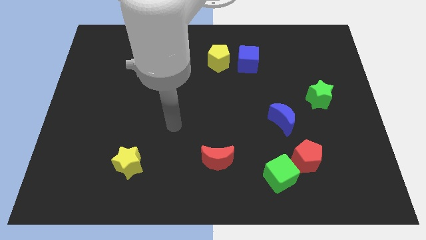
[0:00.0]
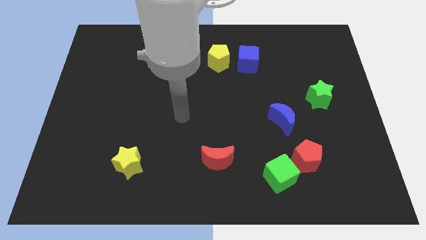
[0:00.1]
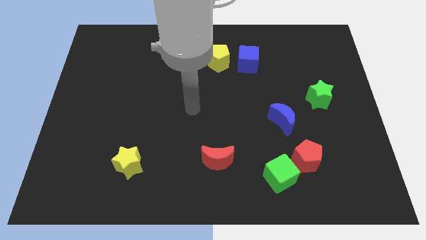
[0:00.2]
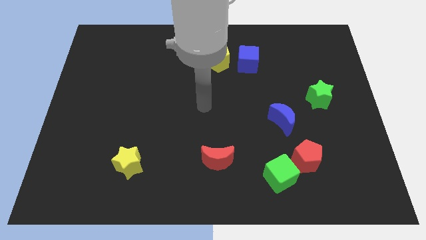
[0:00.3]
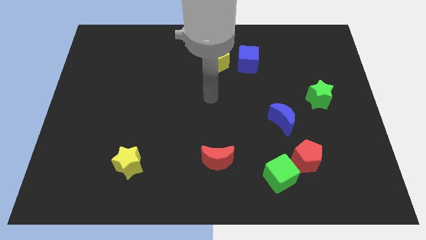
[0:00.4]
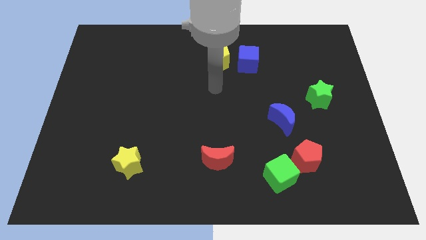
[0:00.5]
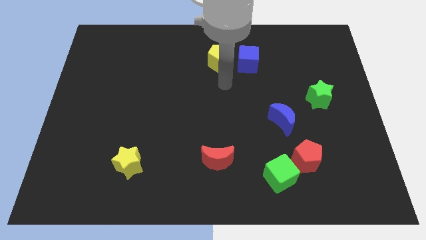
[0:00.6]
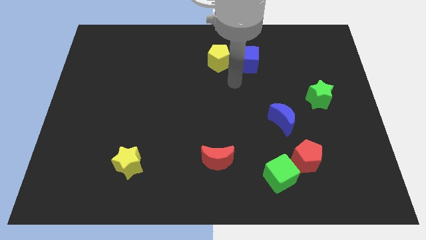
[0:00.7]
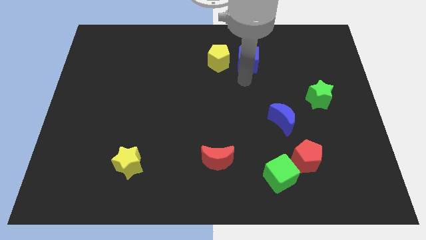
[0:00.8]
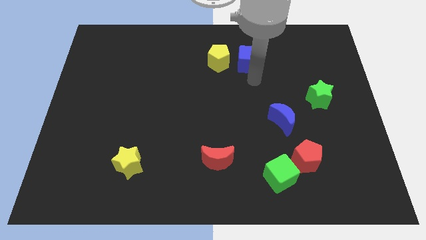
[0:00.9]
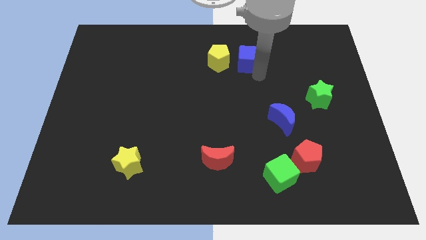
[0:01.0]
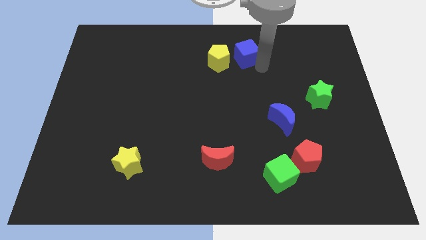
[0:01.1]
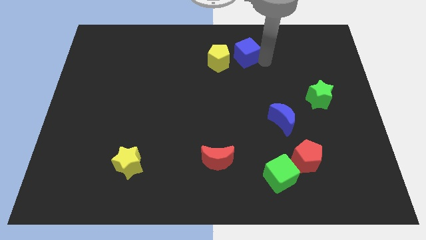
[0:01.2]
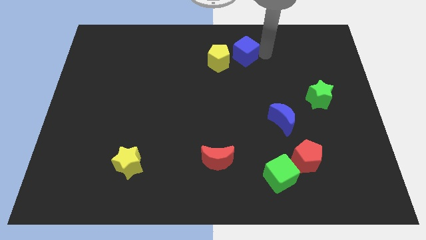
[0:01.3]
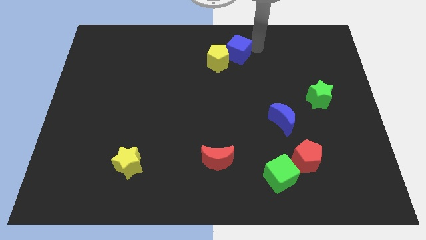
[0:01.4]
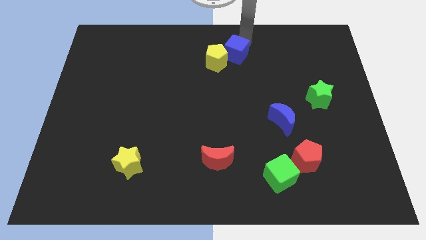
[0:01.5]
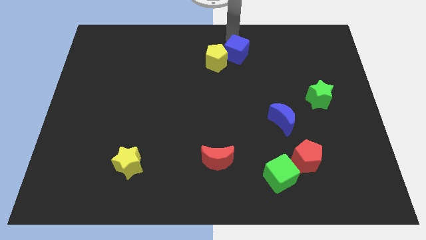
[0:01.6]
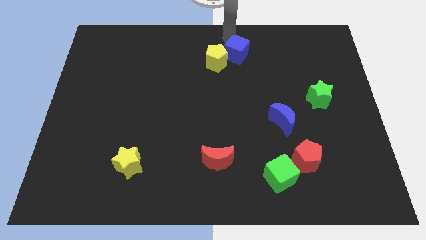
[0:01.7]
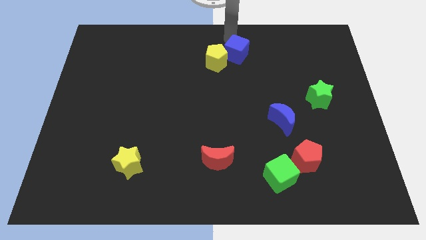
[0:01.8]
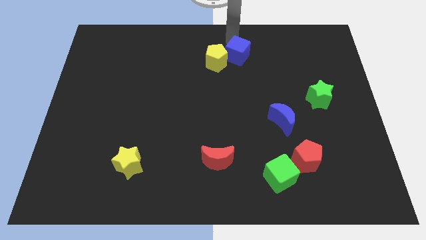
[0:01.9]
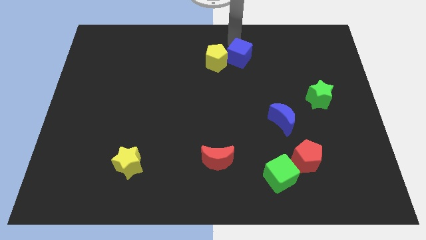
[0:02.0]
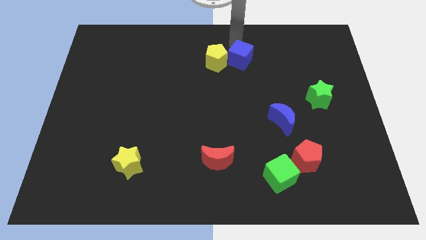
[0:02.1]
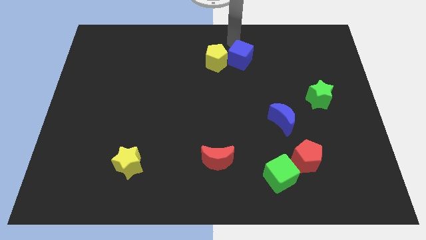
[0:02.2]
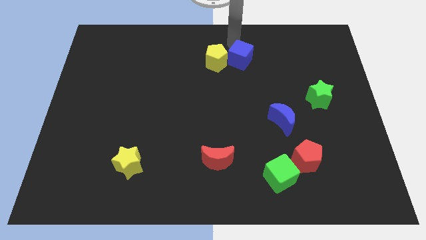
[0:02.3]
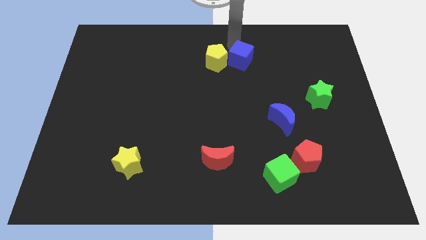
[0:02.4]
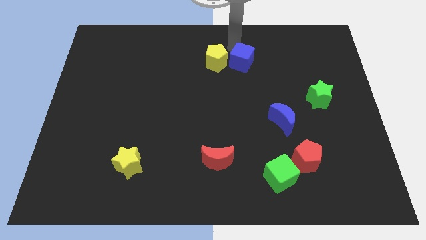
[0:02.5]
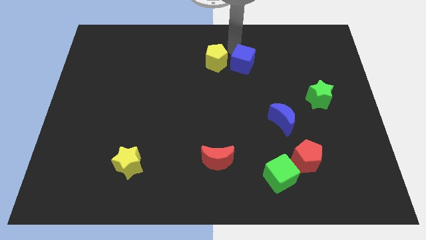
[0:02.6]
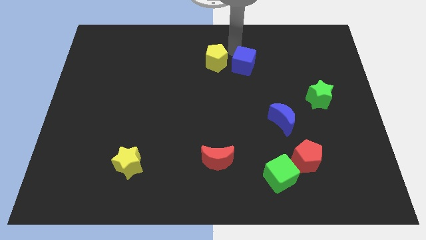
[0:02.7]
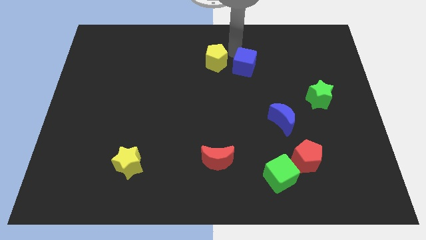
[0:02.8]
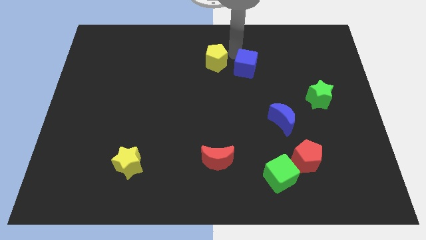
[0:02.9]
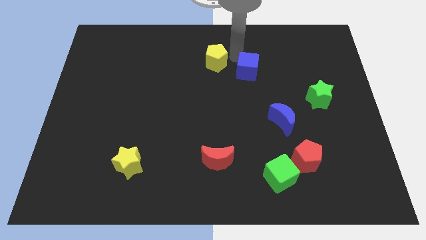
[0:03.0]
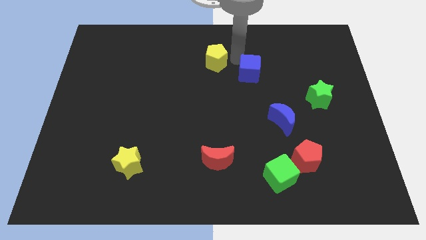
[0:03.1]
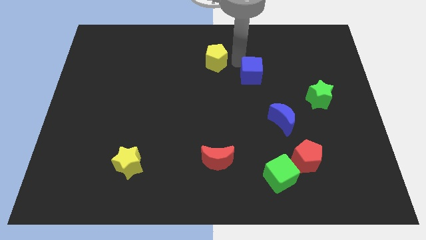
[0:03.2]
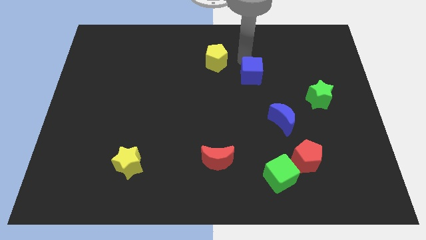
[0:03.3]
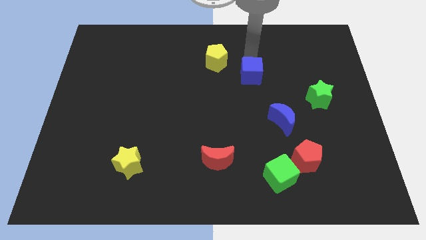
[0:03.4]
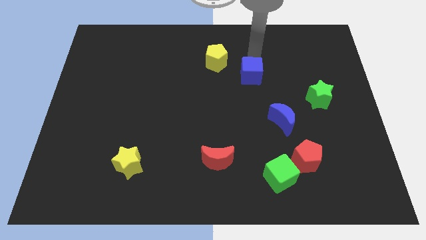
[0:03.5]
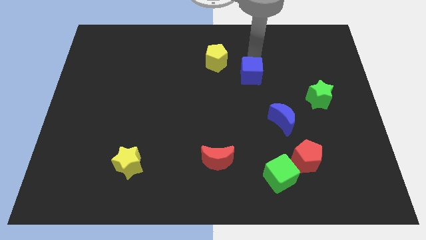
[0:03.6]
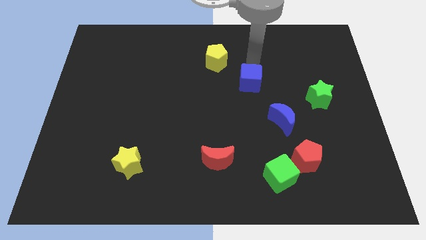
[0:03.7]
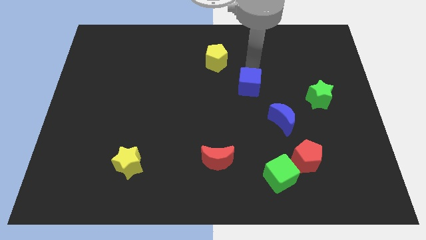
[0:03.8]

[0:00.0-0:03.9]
push the blue cube downwards a bit

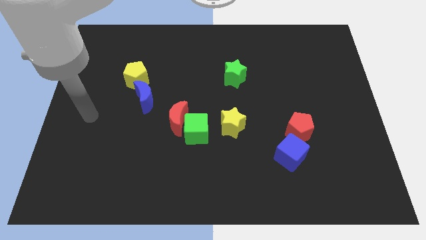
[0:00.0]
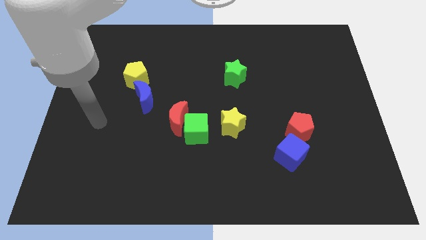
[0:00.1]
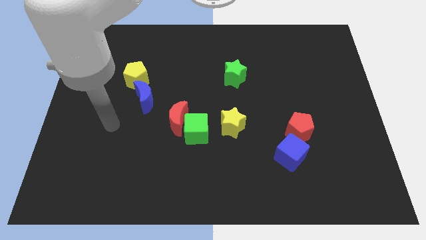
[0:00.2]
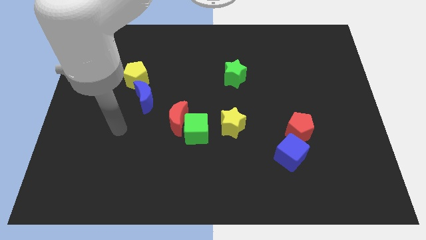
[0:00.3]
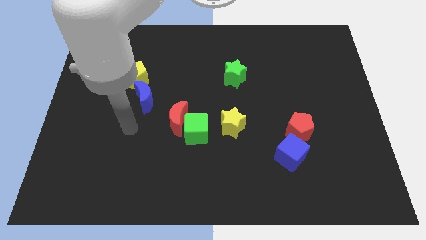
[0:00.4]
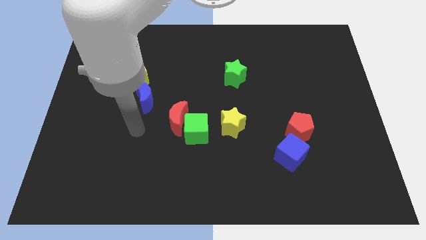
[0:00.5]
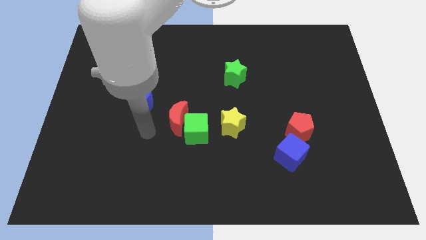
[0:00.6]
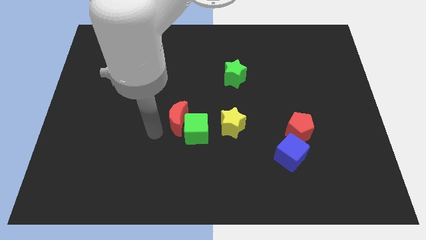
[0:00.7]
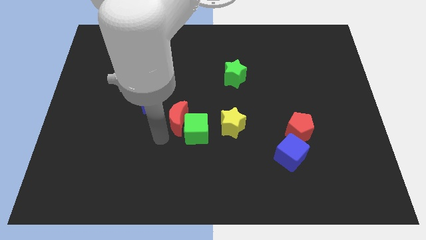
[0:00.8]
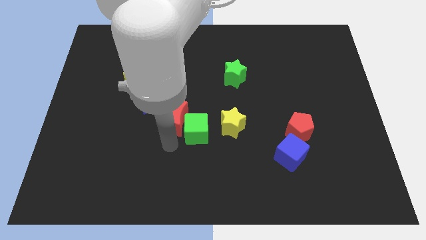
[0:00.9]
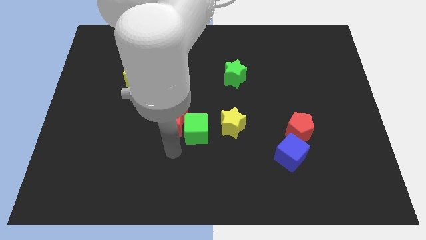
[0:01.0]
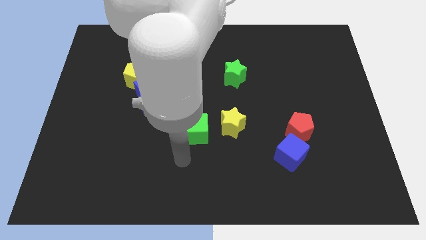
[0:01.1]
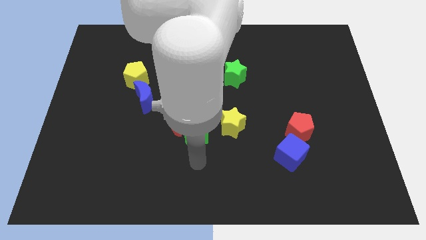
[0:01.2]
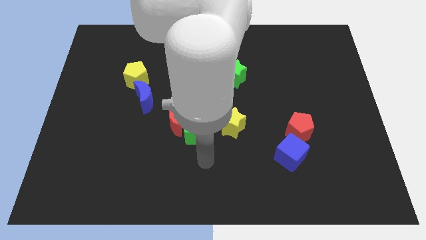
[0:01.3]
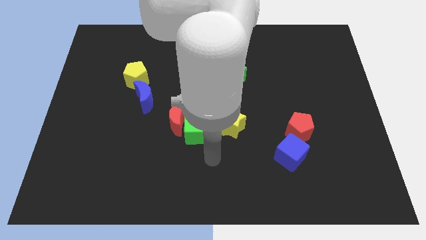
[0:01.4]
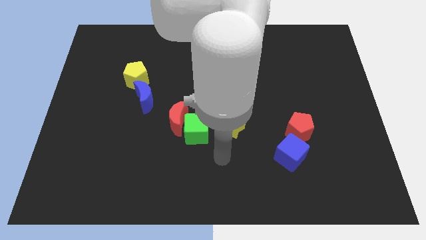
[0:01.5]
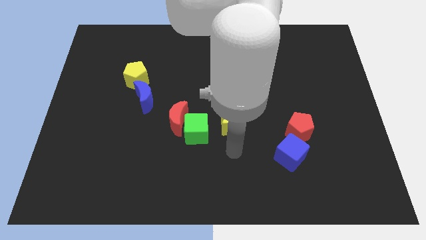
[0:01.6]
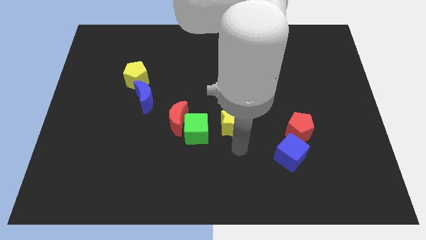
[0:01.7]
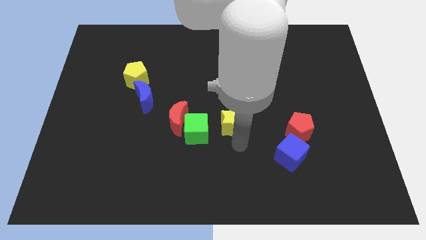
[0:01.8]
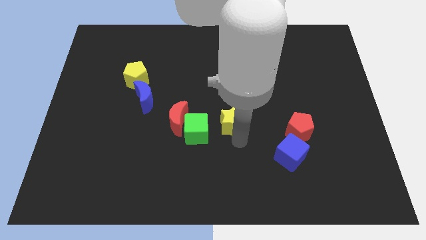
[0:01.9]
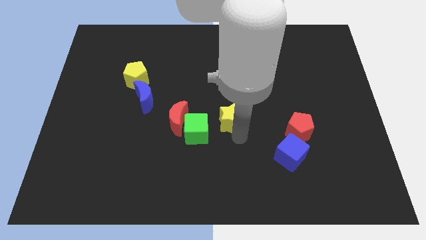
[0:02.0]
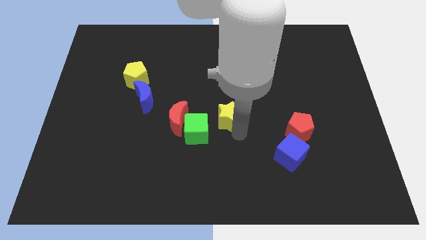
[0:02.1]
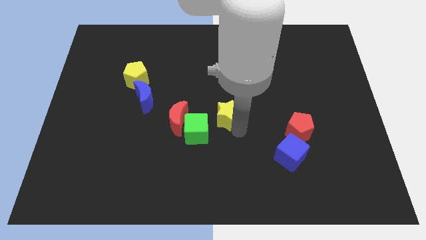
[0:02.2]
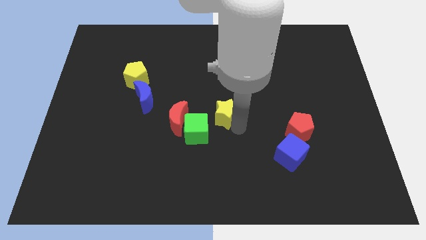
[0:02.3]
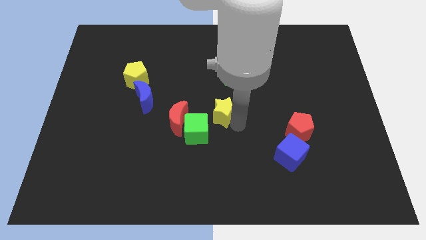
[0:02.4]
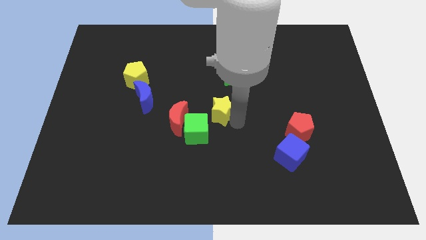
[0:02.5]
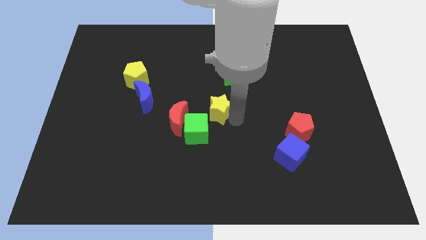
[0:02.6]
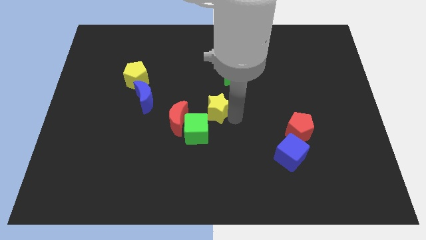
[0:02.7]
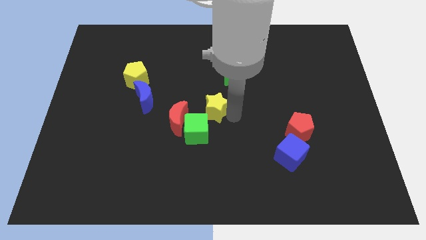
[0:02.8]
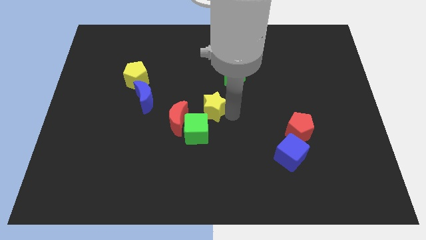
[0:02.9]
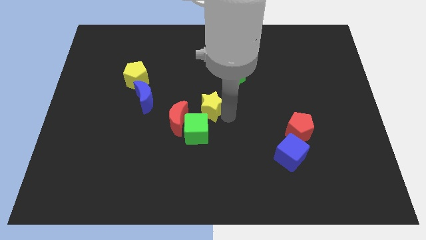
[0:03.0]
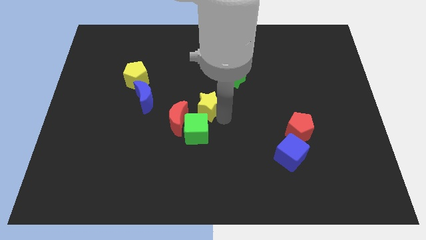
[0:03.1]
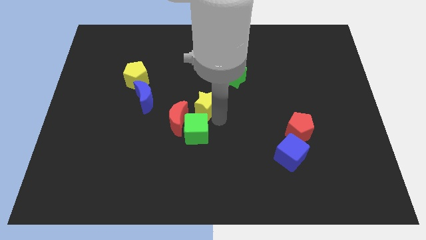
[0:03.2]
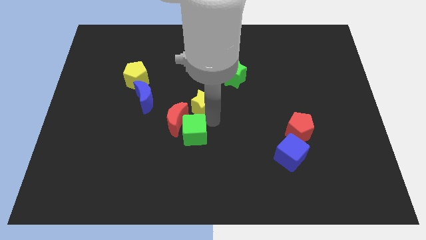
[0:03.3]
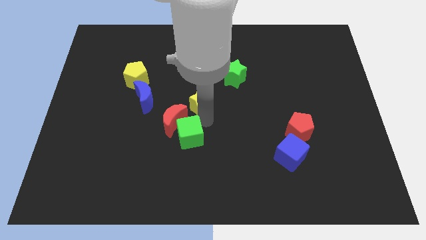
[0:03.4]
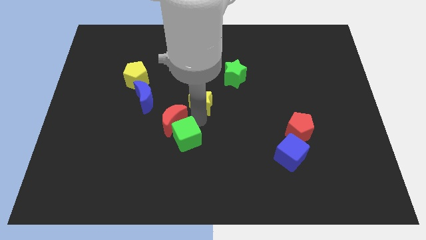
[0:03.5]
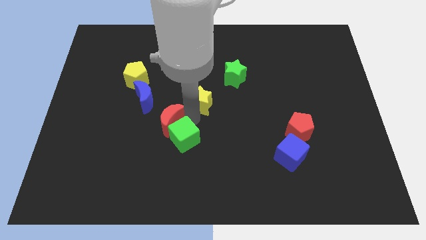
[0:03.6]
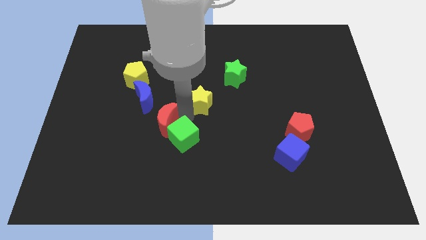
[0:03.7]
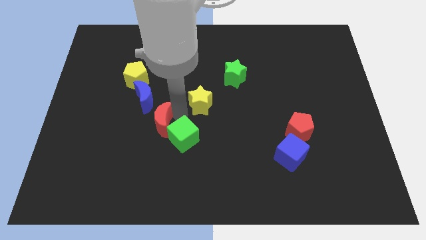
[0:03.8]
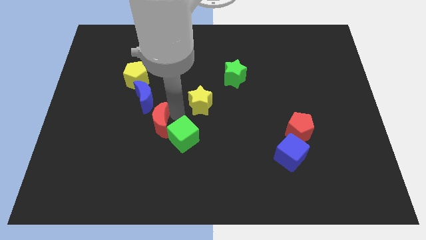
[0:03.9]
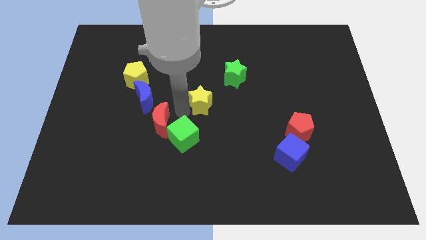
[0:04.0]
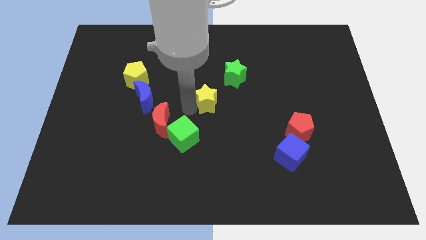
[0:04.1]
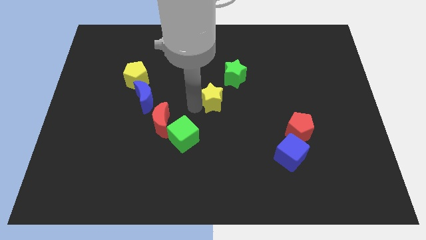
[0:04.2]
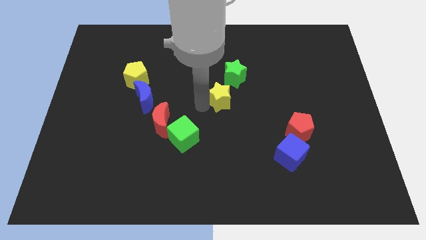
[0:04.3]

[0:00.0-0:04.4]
move the yellow star somewhat upwards
